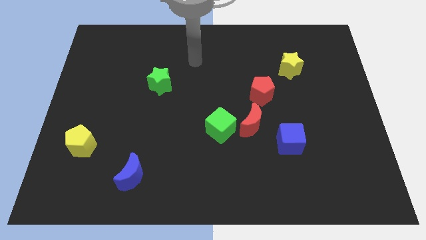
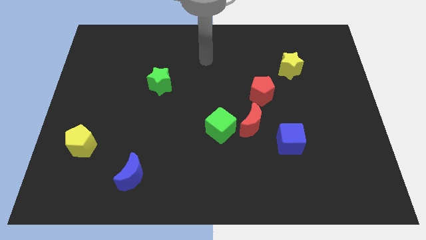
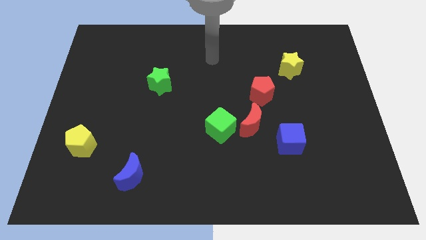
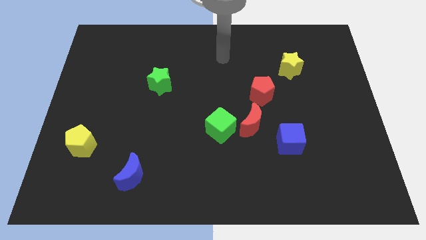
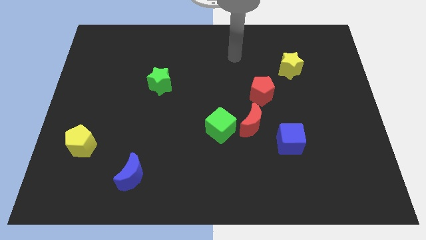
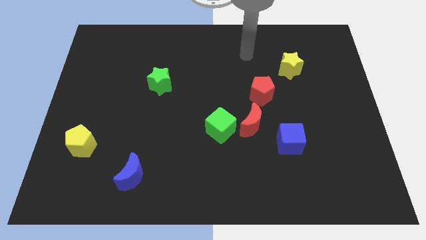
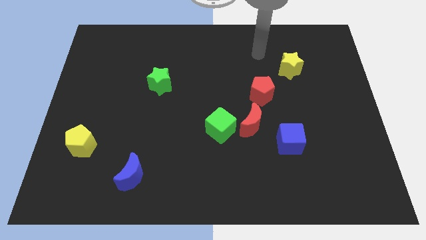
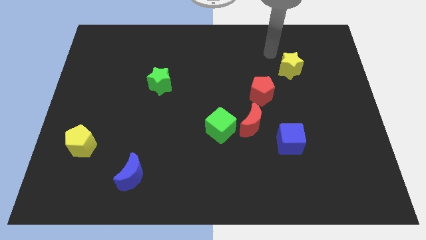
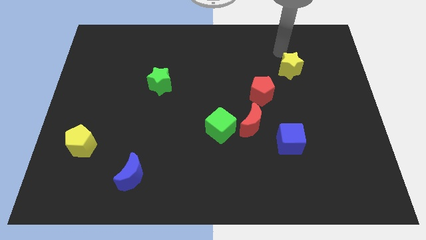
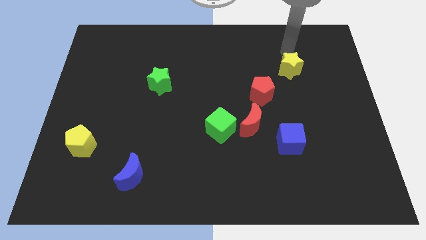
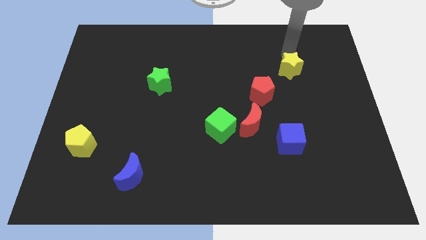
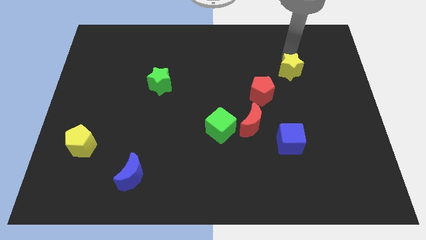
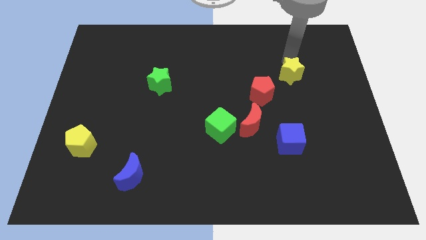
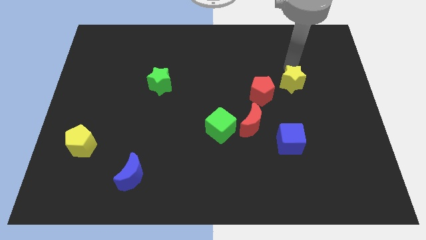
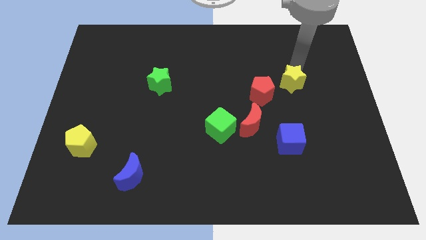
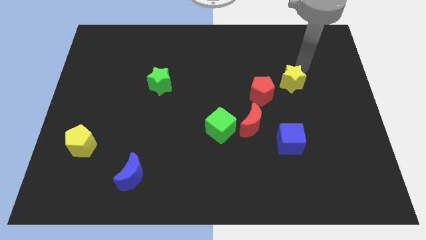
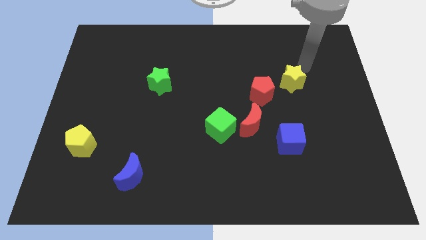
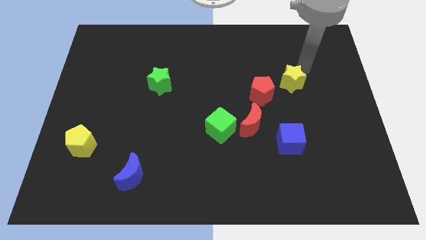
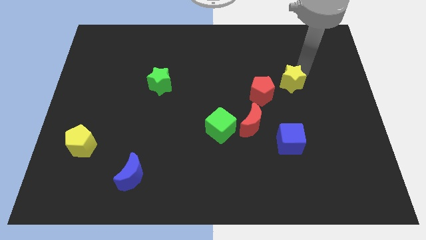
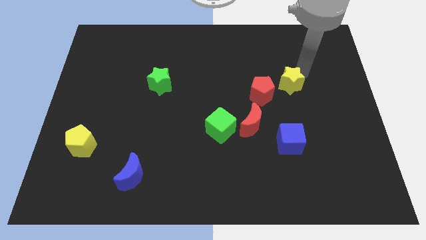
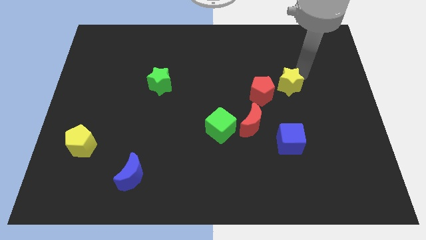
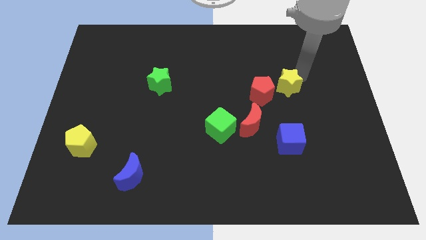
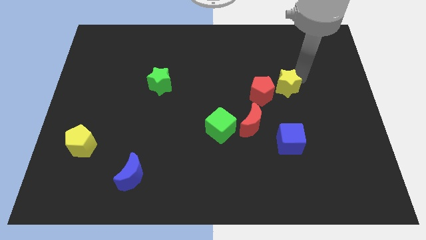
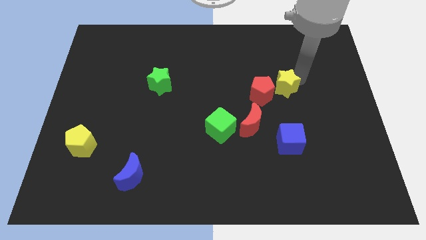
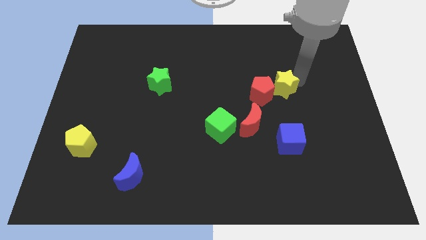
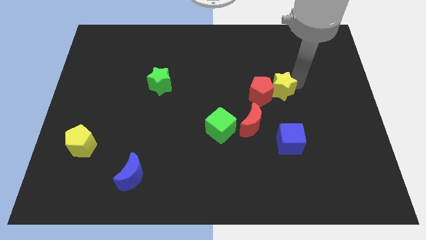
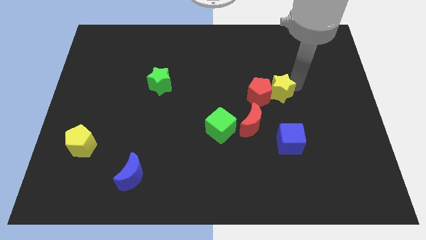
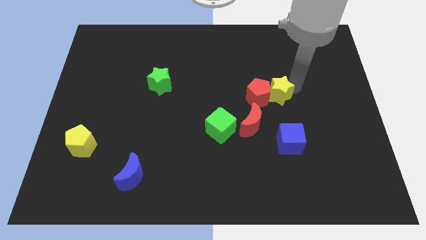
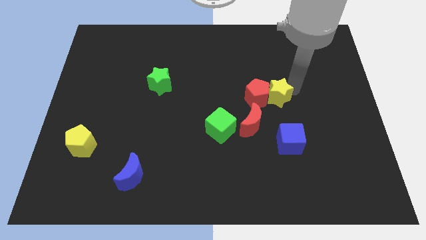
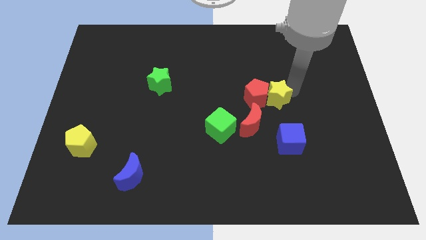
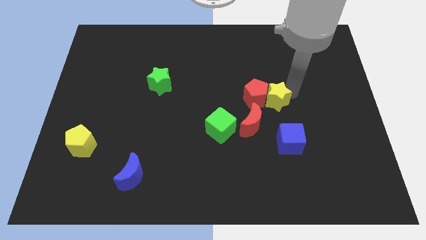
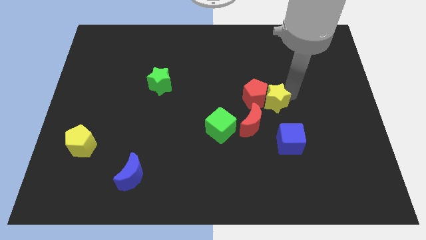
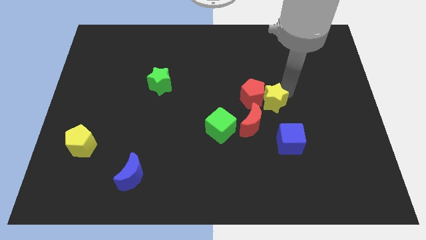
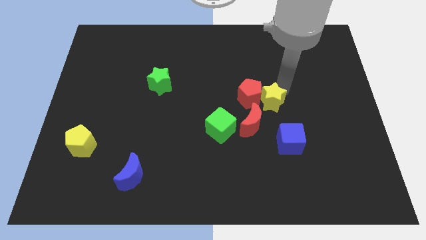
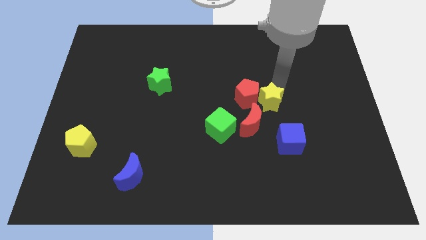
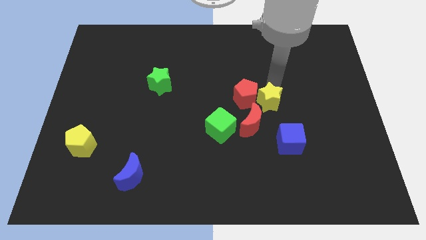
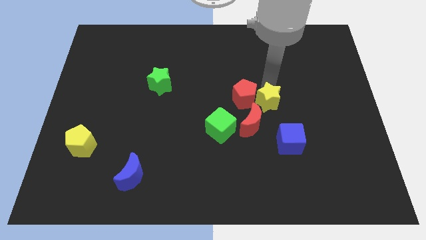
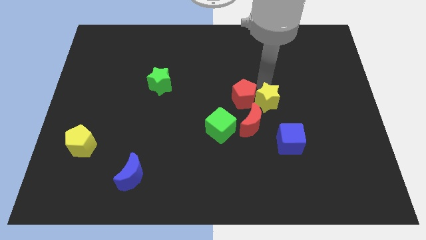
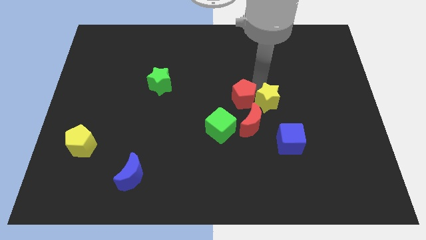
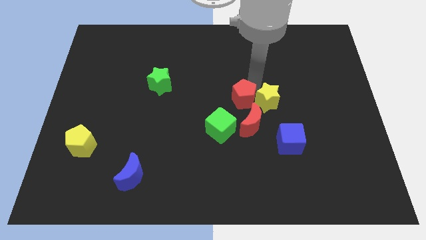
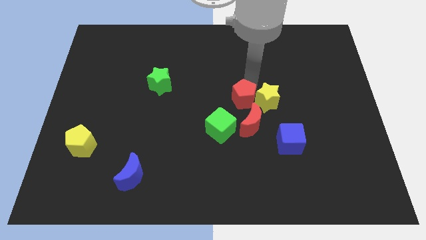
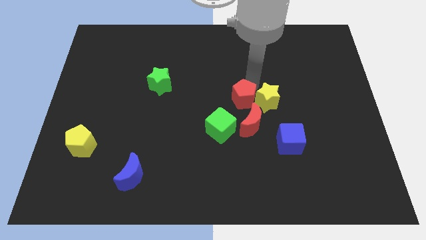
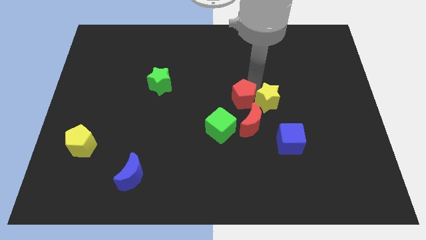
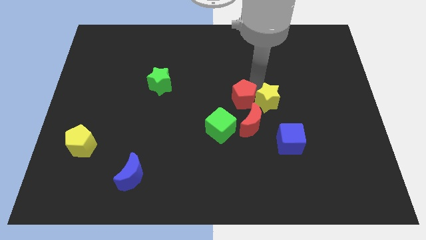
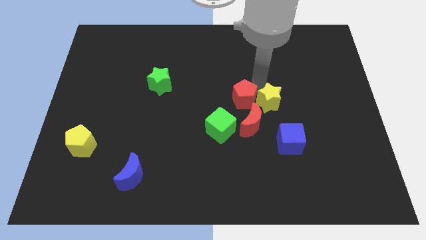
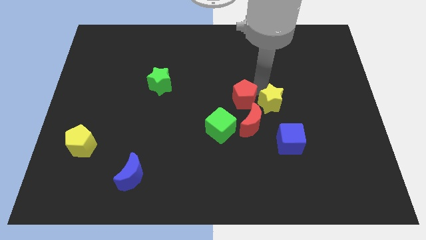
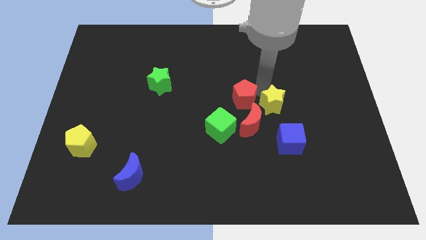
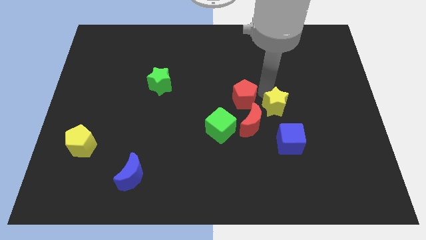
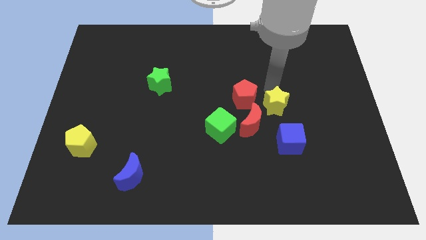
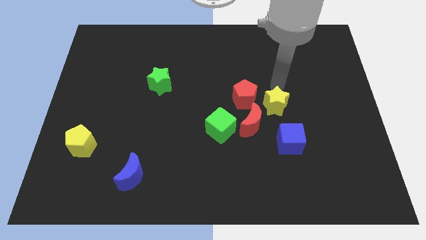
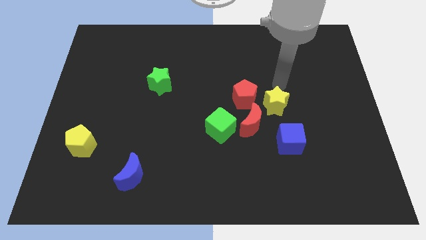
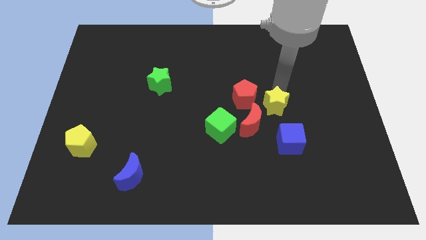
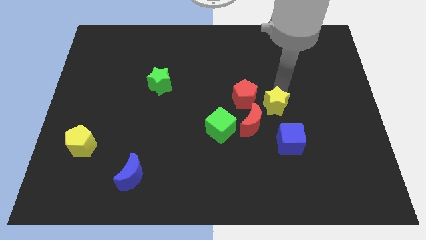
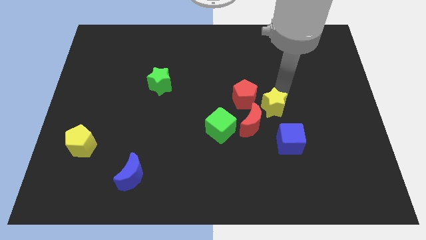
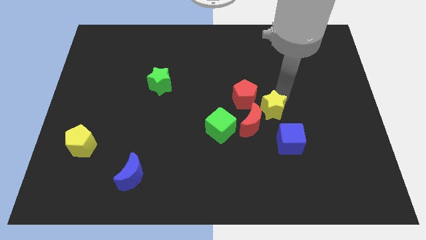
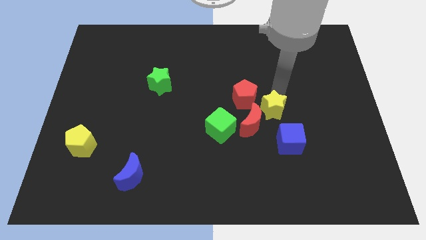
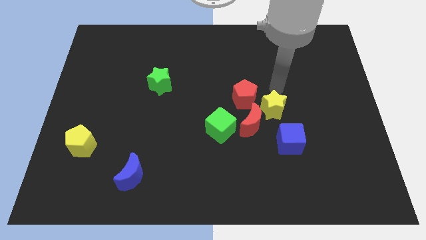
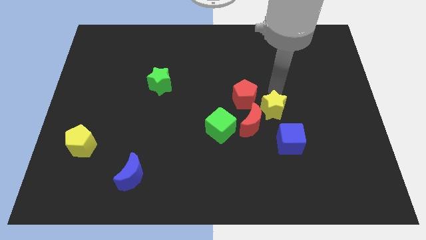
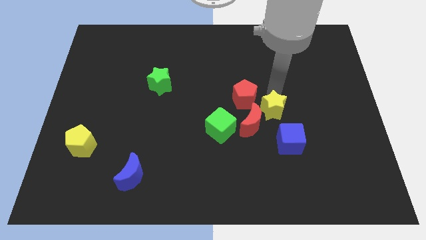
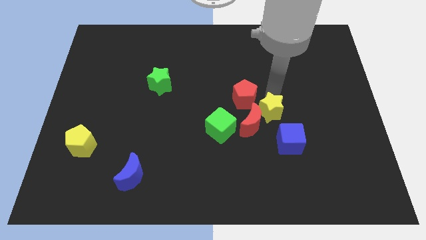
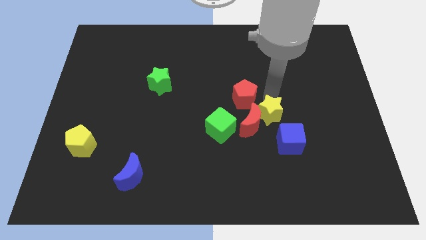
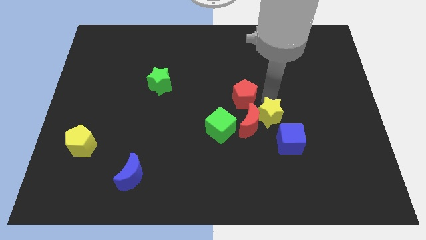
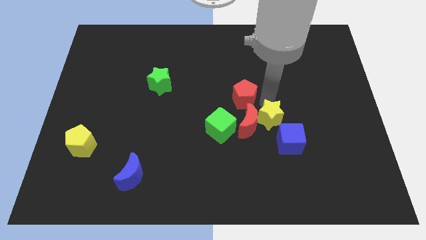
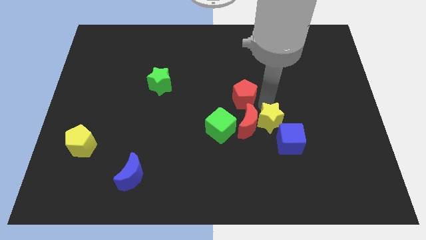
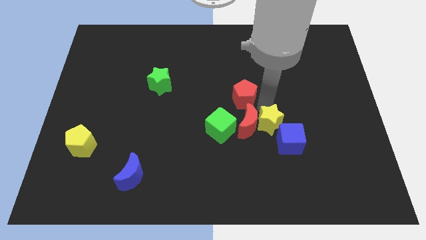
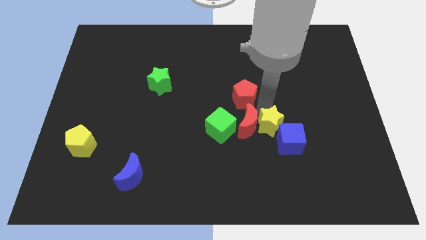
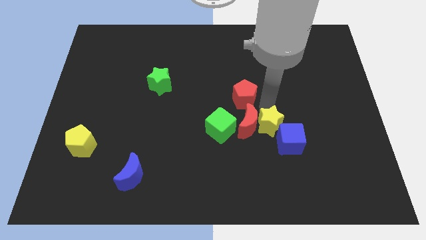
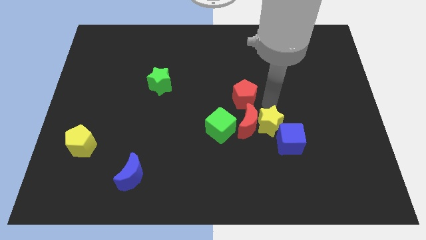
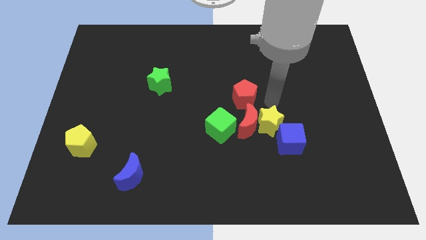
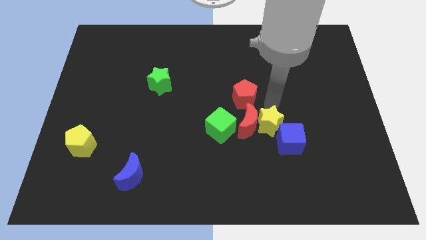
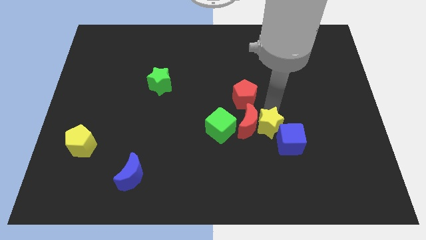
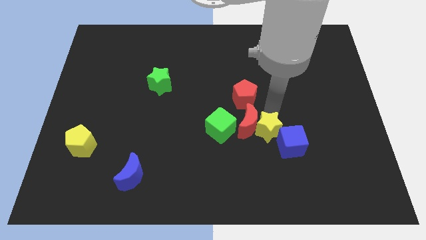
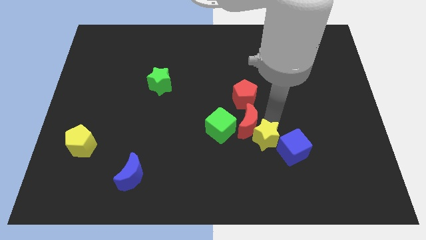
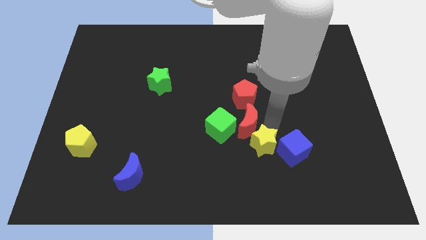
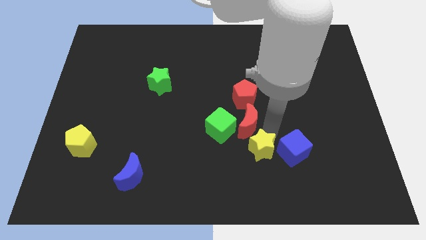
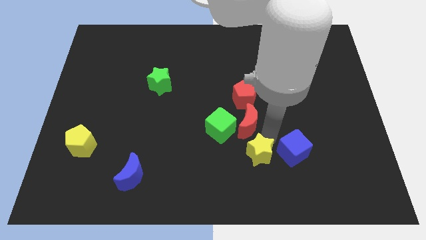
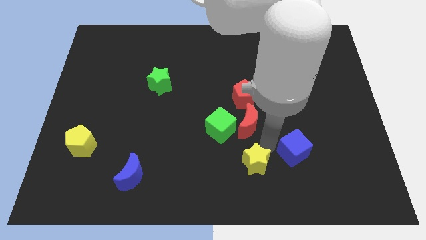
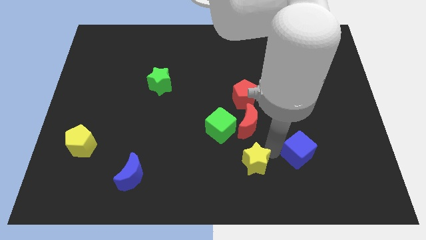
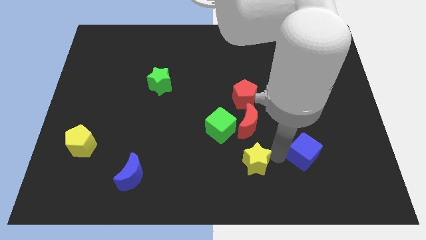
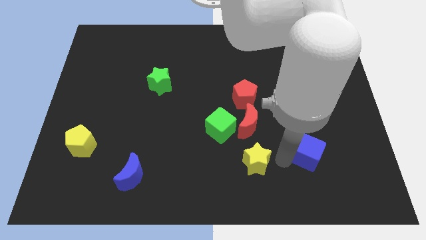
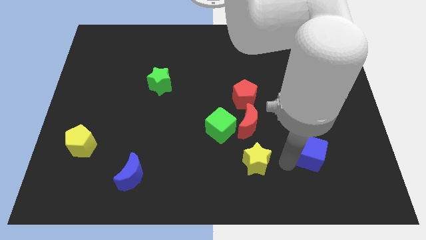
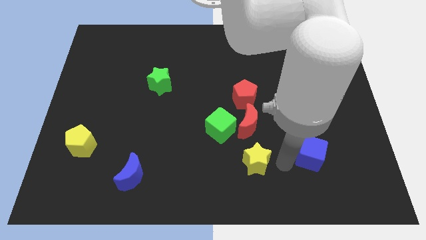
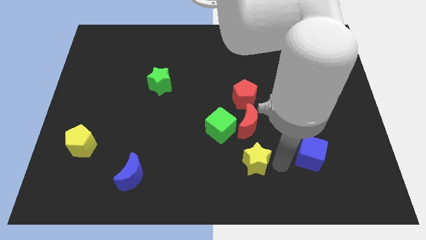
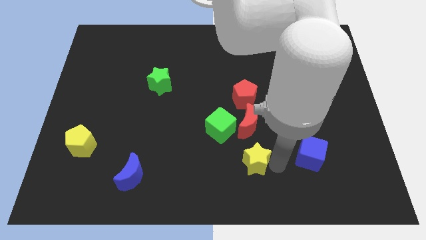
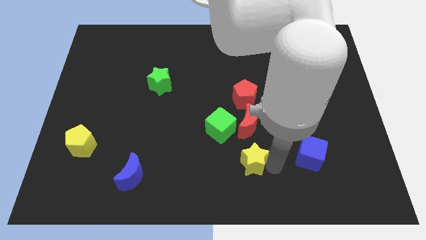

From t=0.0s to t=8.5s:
slide the yellow star to the bottom side
